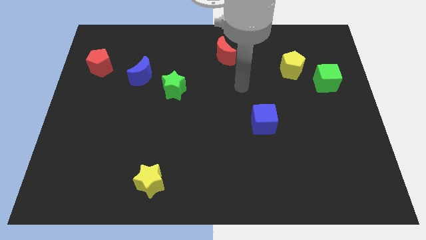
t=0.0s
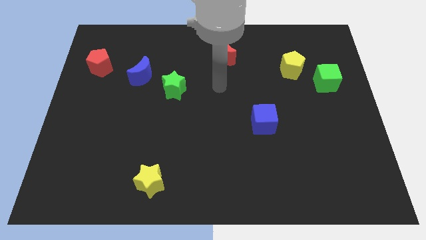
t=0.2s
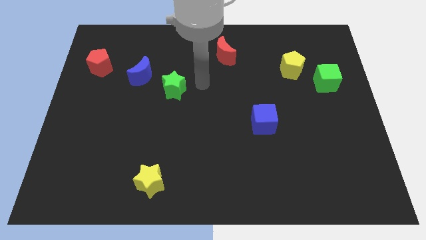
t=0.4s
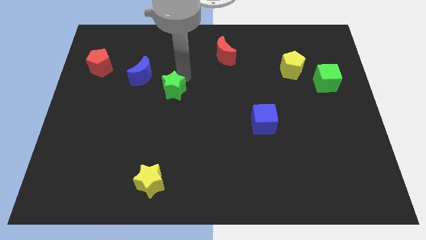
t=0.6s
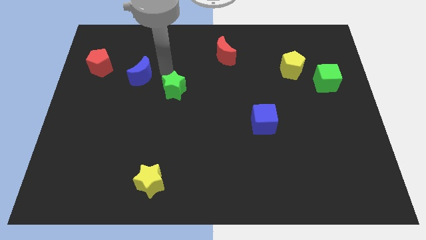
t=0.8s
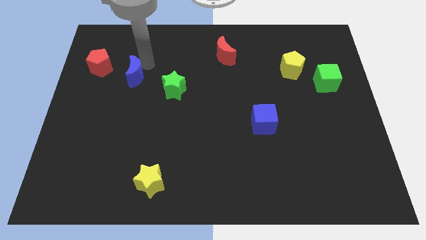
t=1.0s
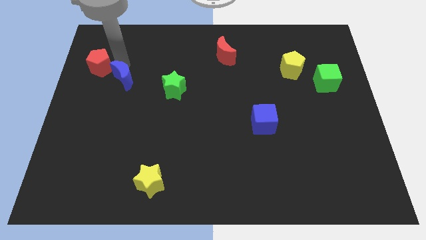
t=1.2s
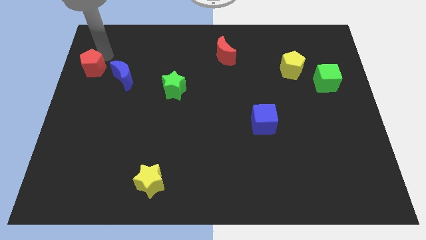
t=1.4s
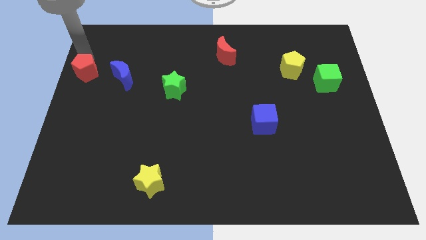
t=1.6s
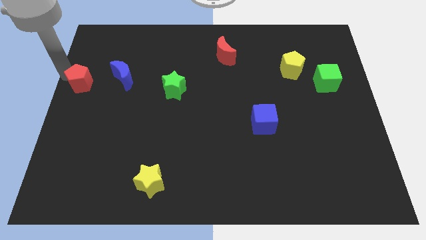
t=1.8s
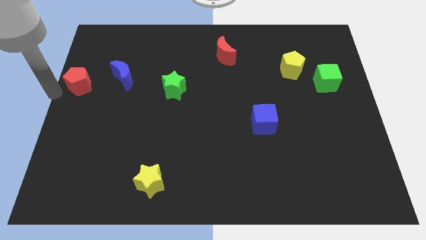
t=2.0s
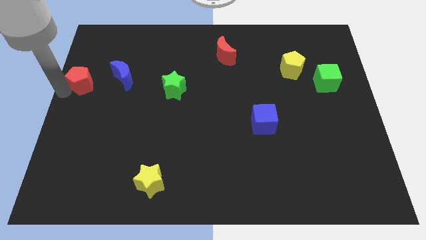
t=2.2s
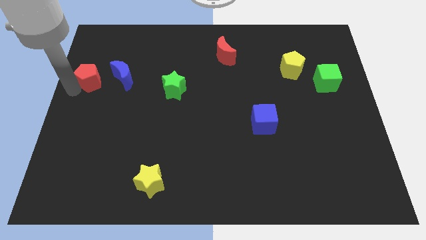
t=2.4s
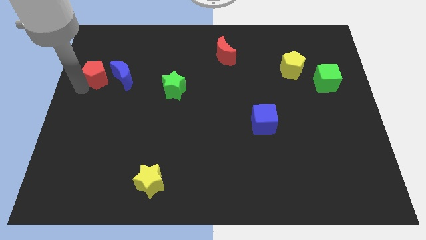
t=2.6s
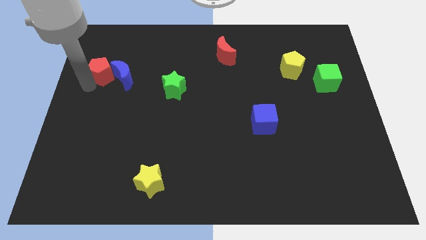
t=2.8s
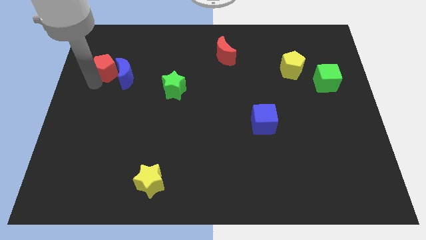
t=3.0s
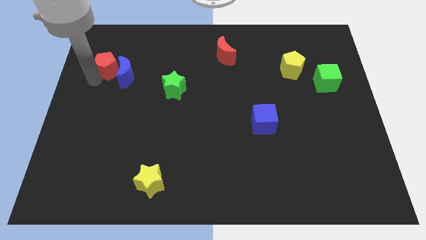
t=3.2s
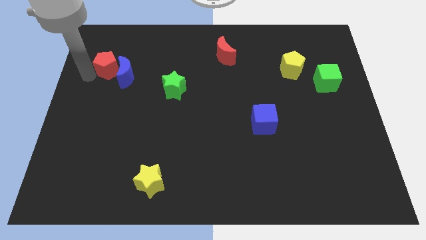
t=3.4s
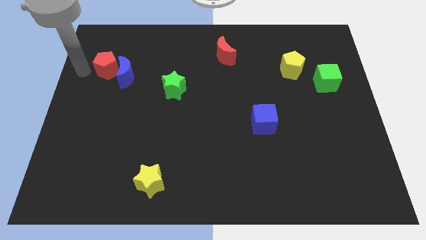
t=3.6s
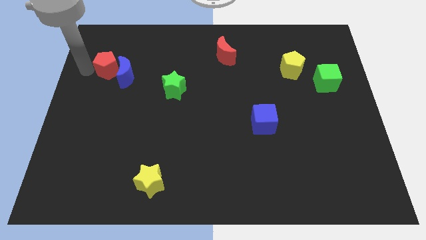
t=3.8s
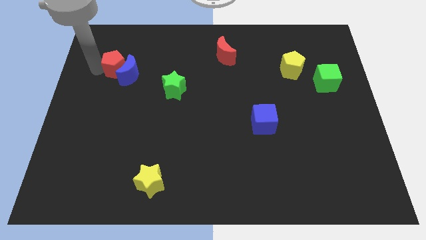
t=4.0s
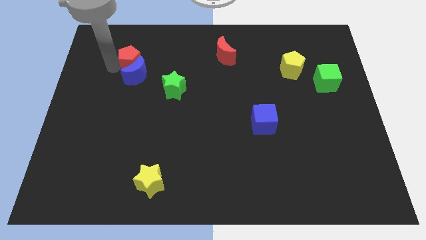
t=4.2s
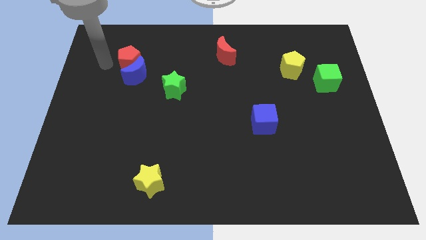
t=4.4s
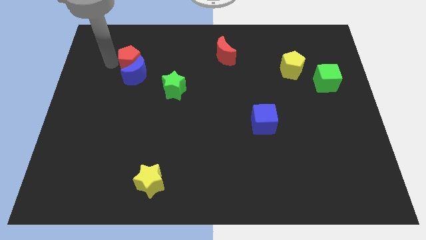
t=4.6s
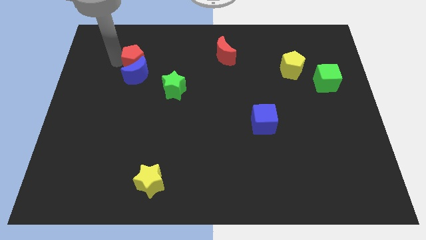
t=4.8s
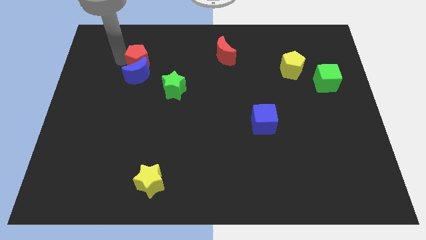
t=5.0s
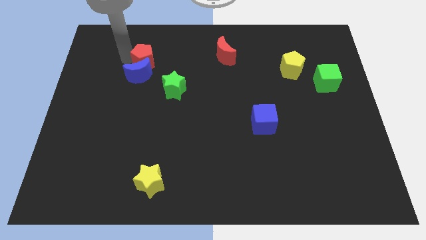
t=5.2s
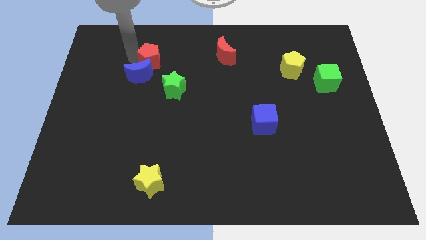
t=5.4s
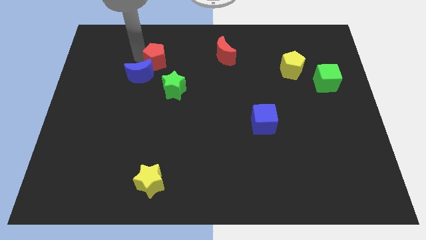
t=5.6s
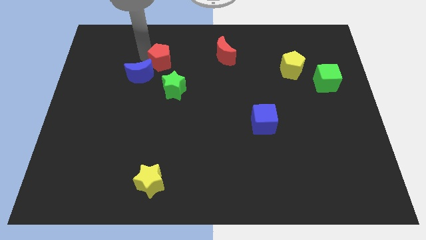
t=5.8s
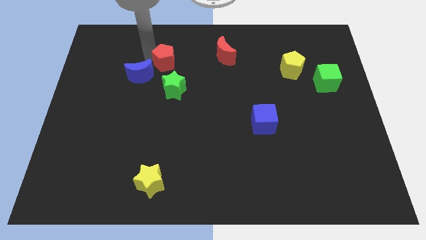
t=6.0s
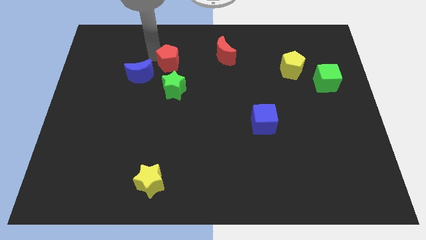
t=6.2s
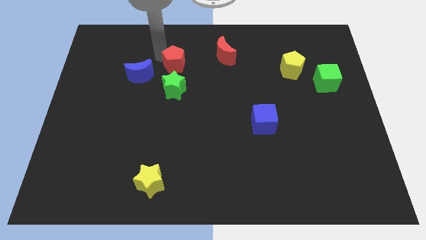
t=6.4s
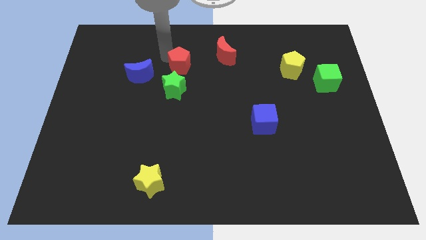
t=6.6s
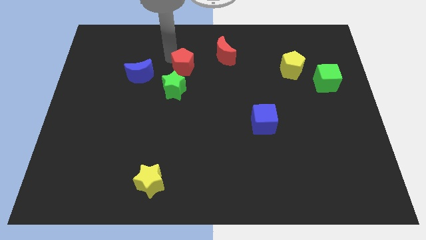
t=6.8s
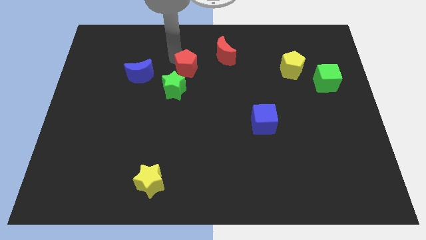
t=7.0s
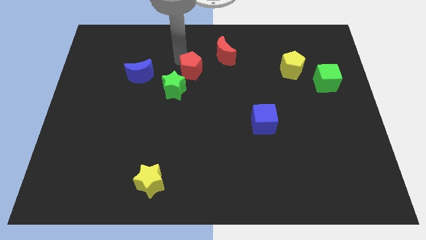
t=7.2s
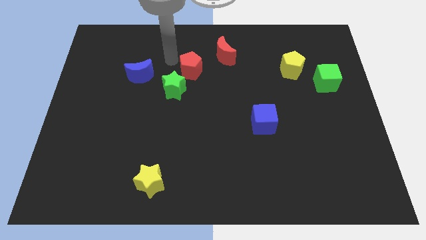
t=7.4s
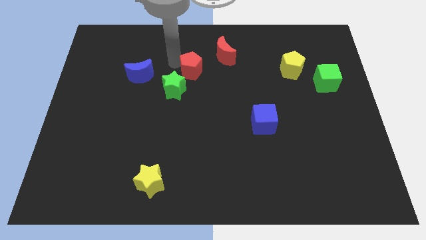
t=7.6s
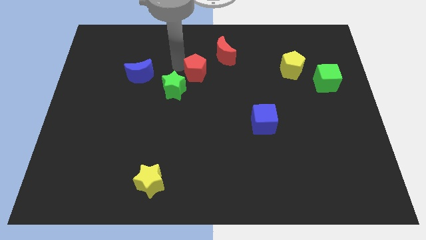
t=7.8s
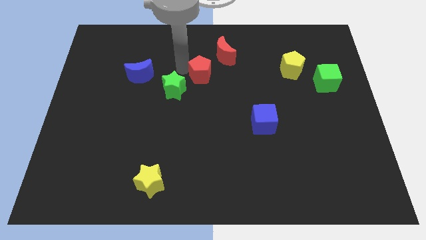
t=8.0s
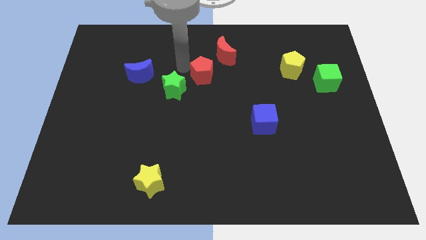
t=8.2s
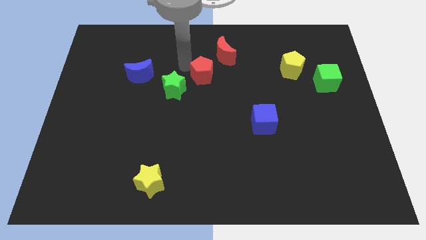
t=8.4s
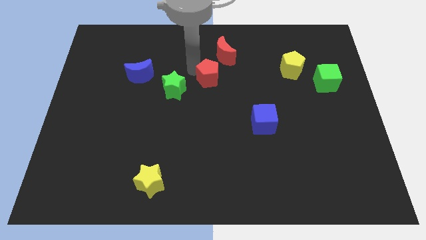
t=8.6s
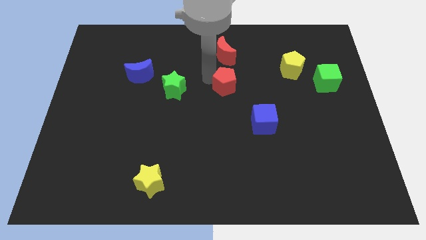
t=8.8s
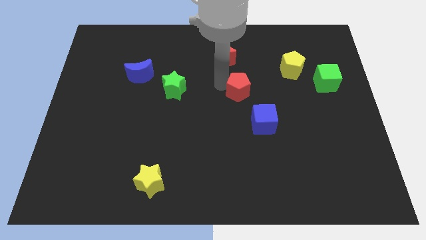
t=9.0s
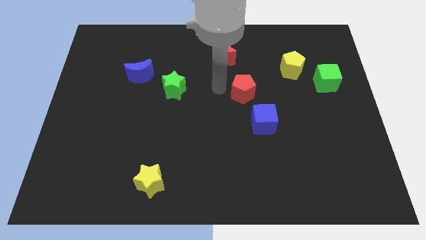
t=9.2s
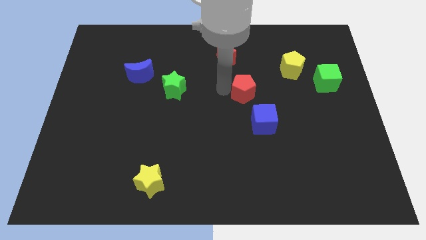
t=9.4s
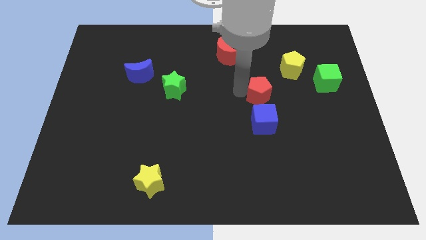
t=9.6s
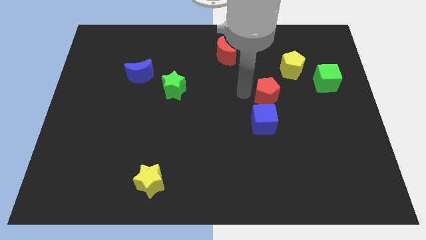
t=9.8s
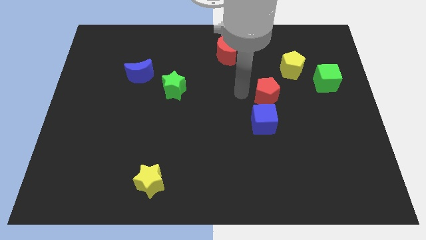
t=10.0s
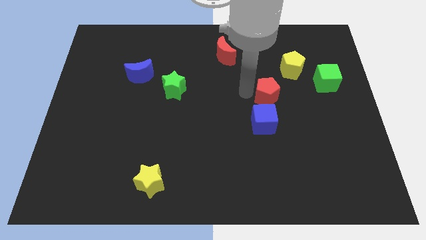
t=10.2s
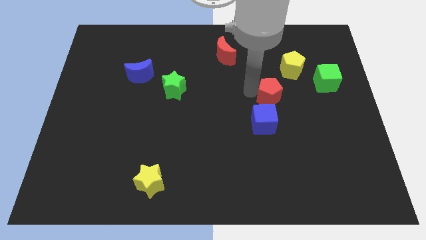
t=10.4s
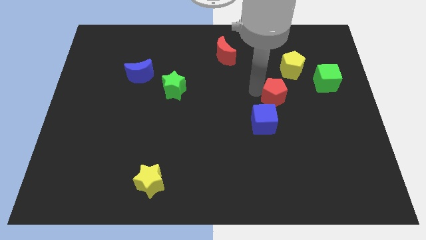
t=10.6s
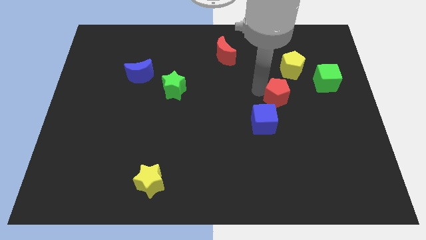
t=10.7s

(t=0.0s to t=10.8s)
push the red pentagon to the bottom side of the yellow pentagon

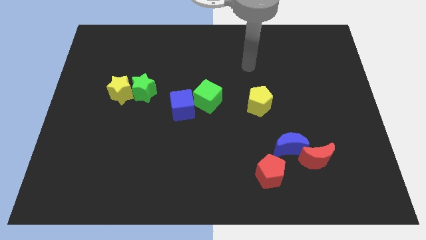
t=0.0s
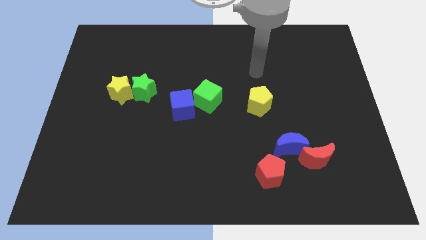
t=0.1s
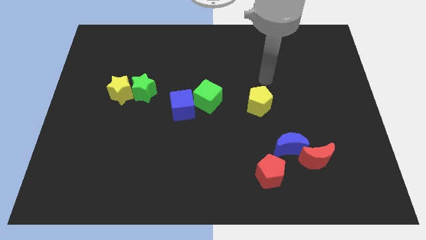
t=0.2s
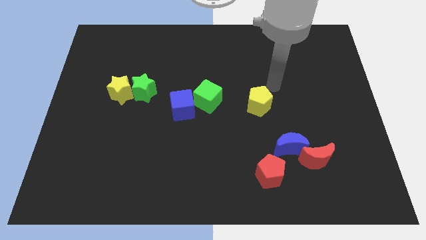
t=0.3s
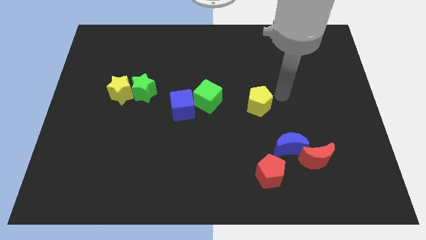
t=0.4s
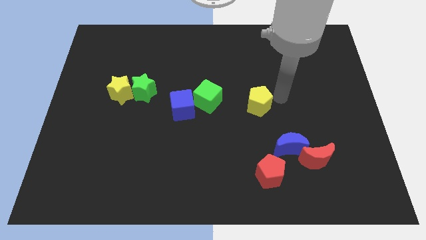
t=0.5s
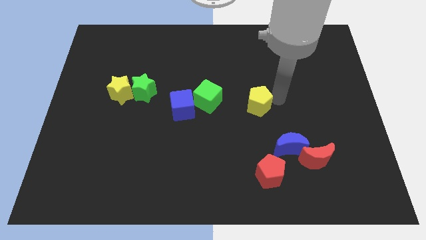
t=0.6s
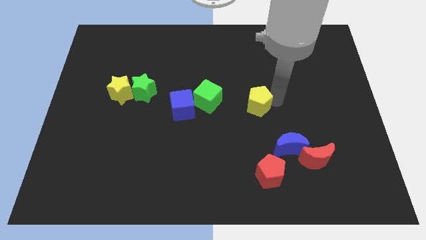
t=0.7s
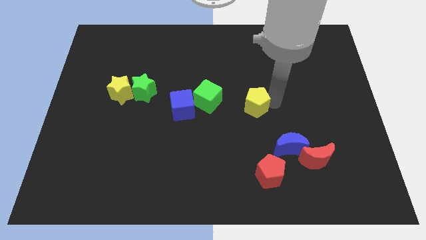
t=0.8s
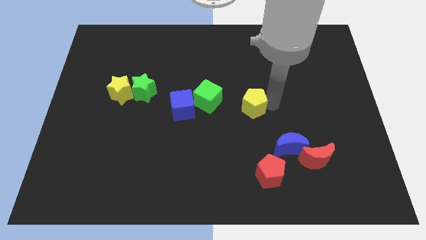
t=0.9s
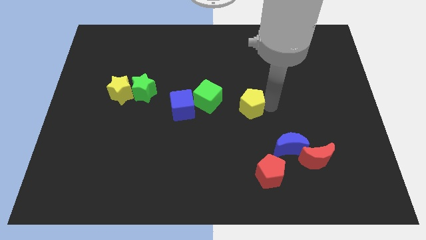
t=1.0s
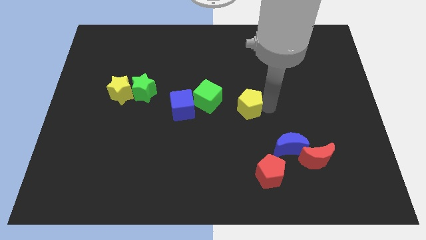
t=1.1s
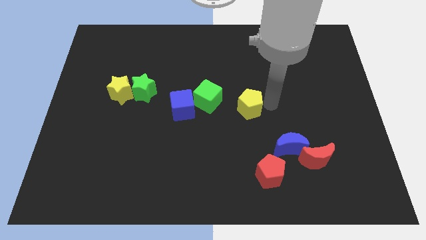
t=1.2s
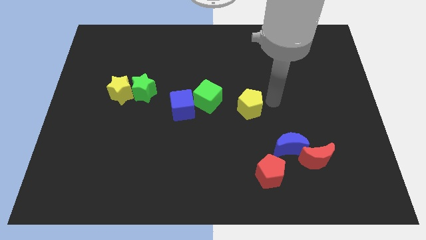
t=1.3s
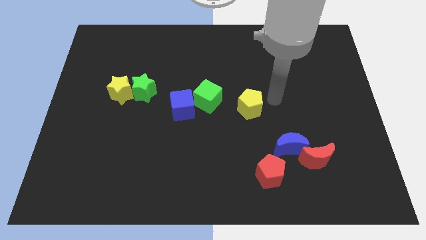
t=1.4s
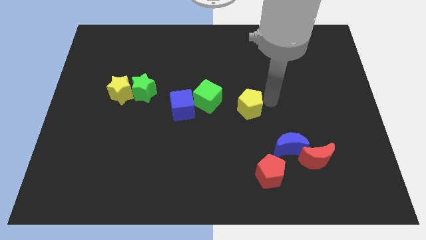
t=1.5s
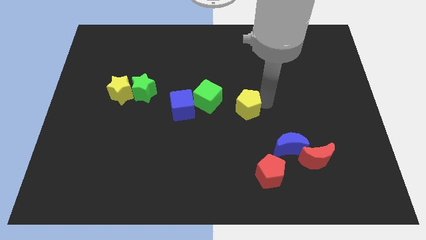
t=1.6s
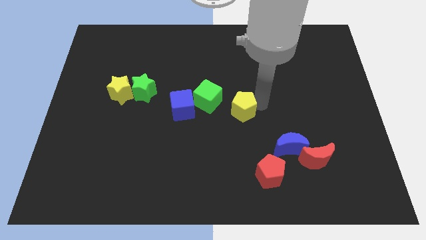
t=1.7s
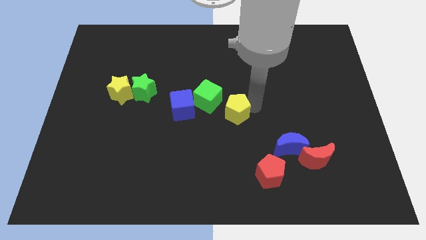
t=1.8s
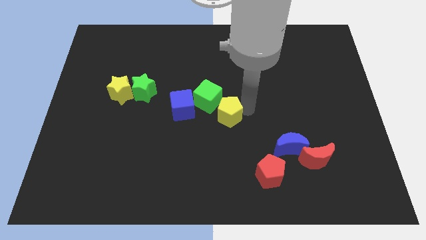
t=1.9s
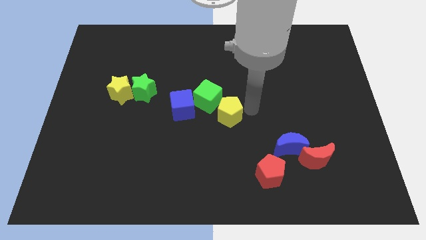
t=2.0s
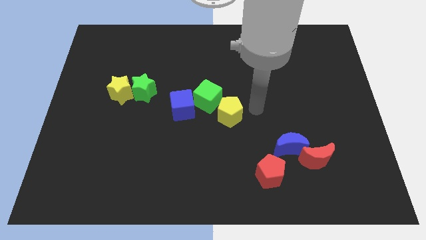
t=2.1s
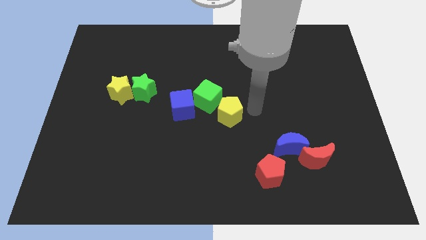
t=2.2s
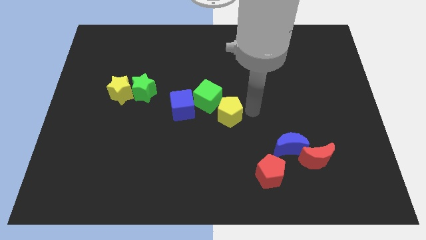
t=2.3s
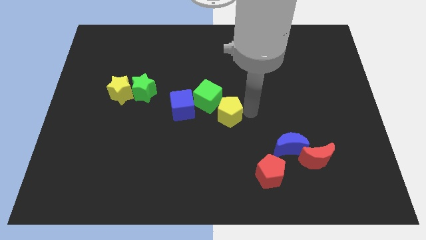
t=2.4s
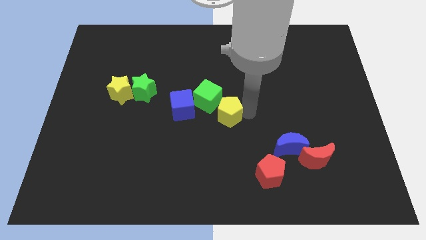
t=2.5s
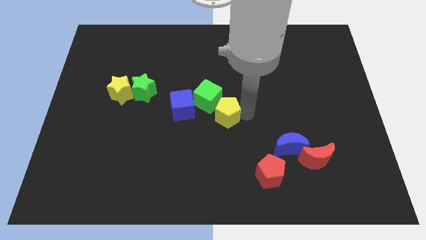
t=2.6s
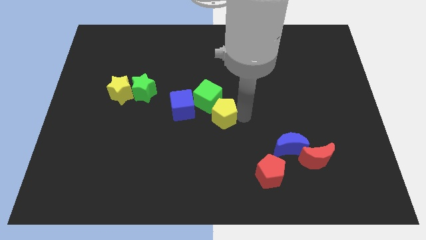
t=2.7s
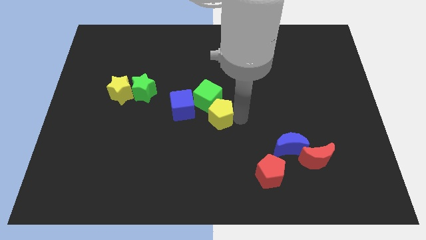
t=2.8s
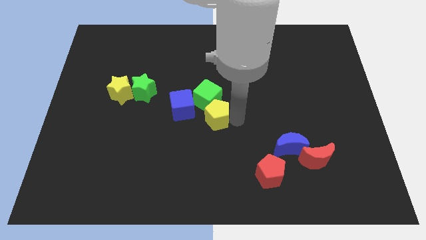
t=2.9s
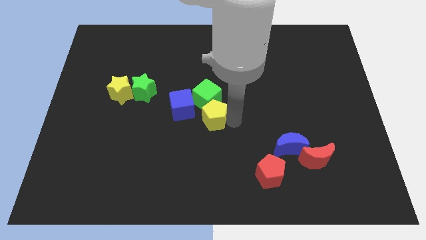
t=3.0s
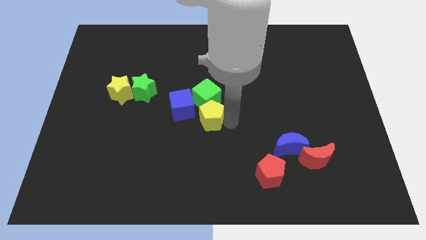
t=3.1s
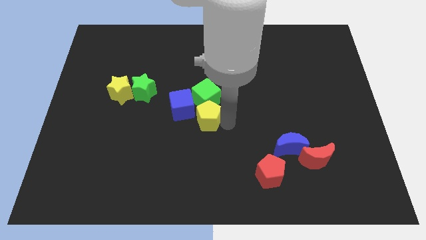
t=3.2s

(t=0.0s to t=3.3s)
slide the yellow pentagon to the bottom left side of the green cube
